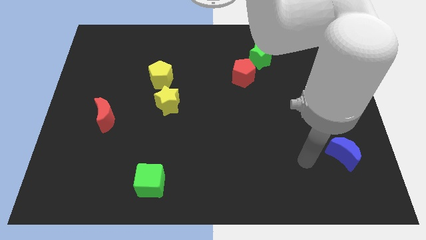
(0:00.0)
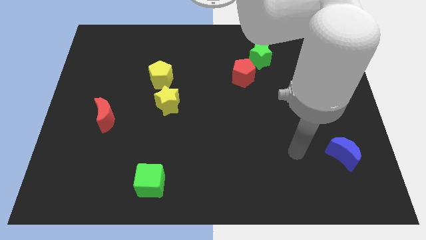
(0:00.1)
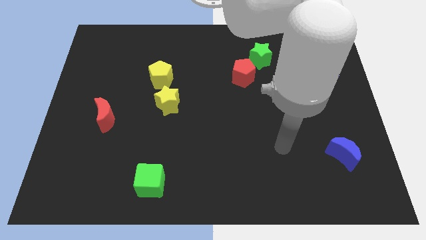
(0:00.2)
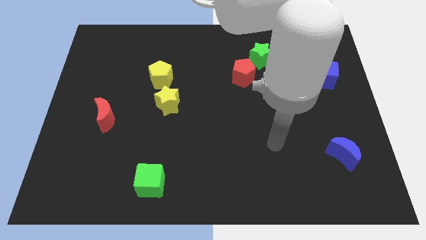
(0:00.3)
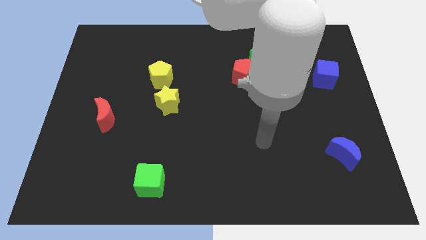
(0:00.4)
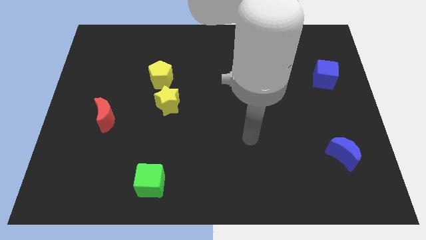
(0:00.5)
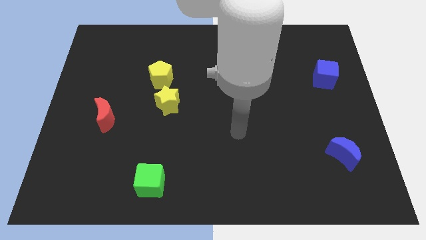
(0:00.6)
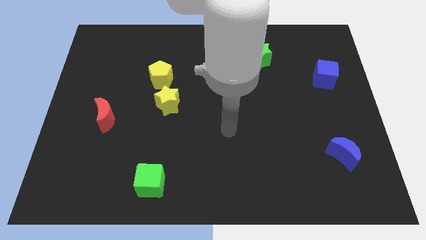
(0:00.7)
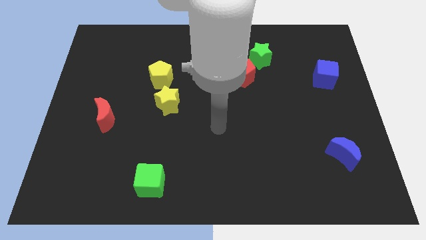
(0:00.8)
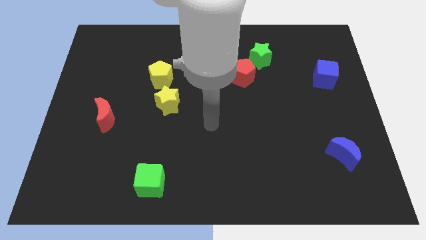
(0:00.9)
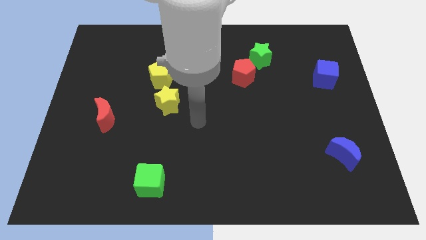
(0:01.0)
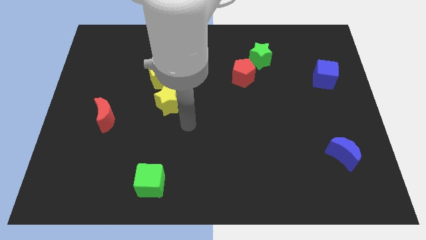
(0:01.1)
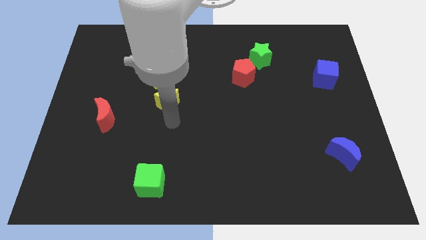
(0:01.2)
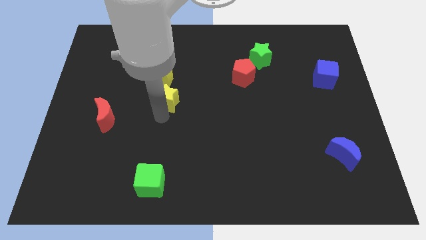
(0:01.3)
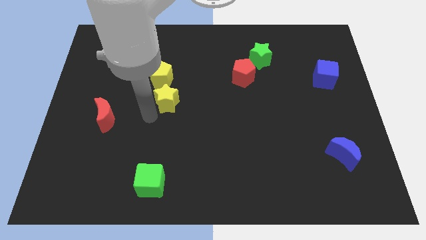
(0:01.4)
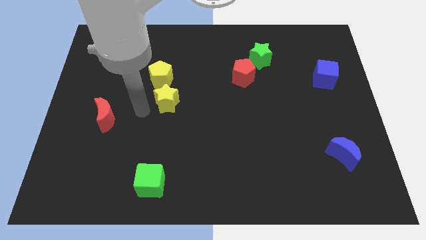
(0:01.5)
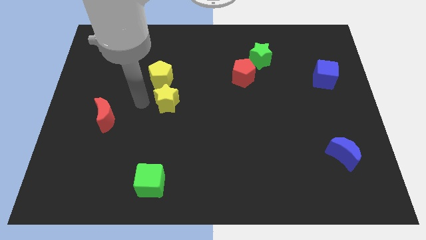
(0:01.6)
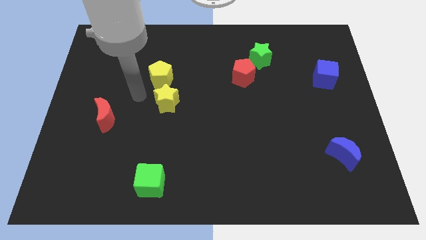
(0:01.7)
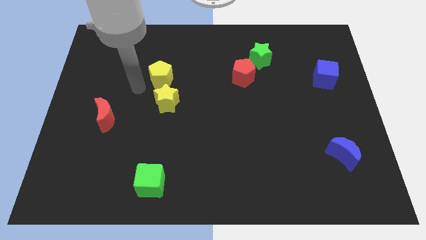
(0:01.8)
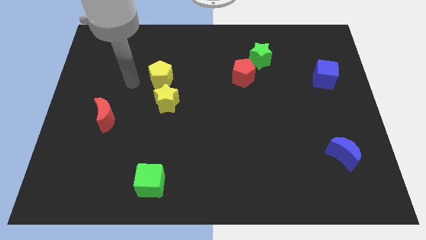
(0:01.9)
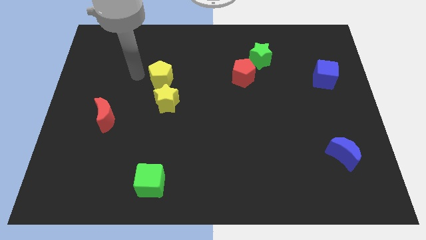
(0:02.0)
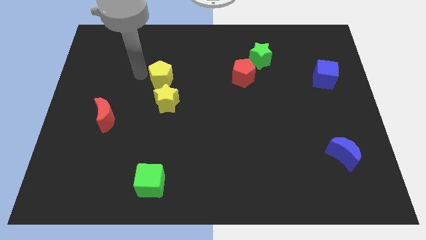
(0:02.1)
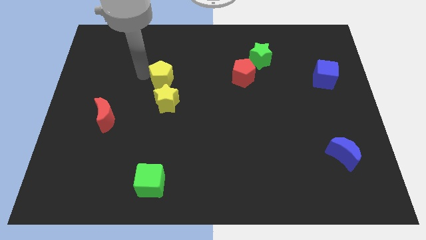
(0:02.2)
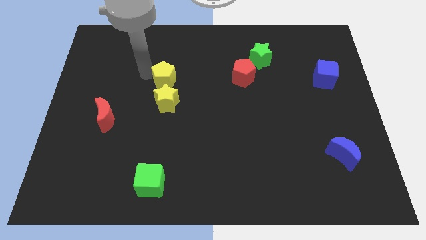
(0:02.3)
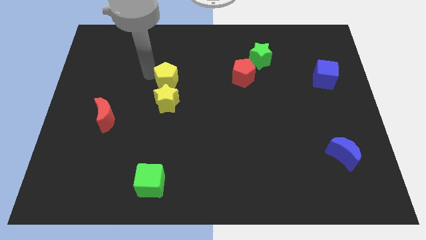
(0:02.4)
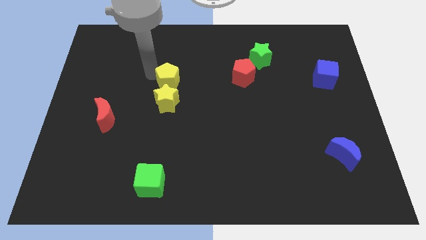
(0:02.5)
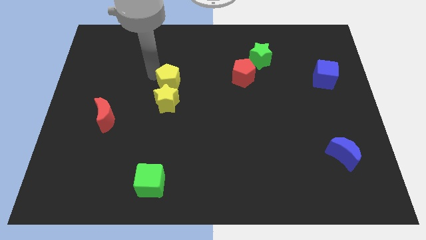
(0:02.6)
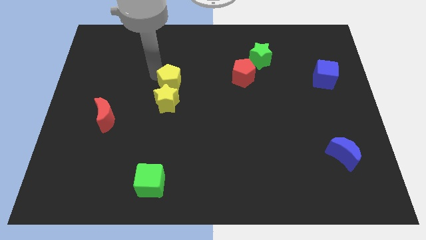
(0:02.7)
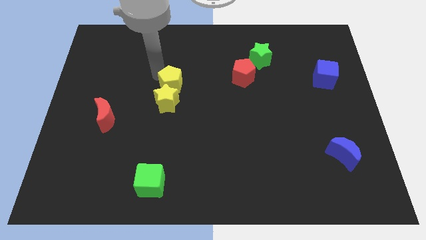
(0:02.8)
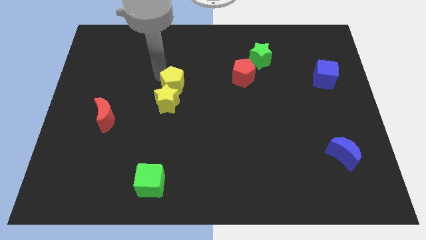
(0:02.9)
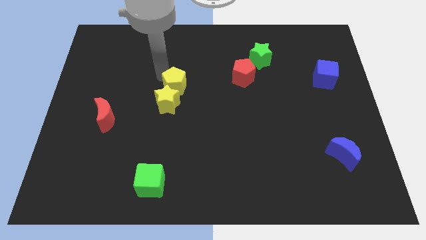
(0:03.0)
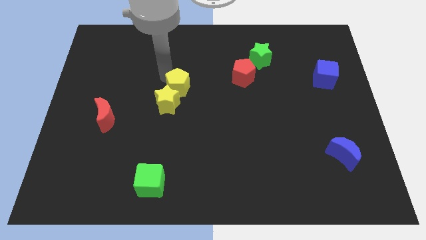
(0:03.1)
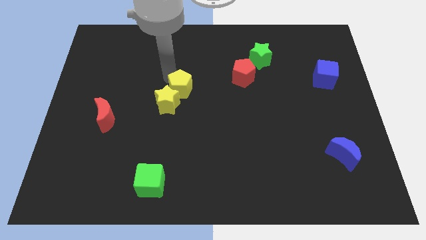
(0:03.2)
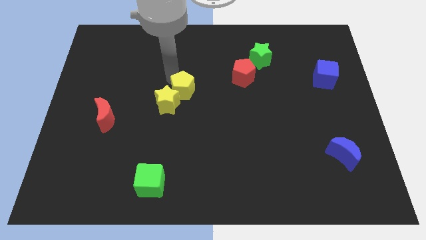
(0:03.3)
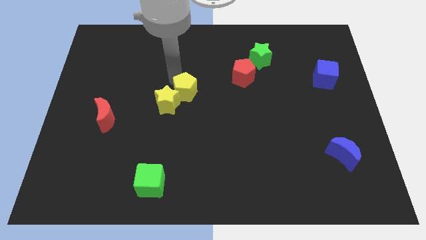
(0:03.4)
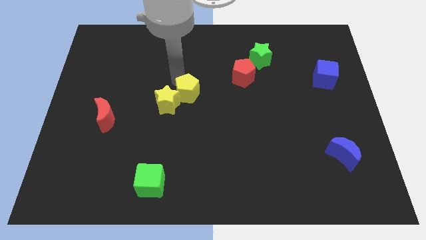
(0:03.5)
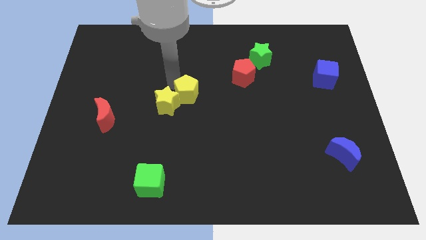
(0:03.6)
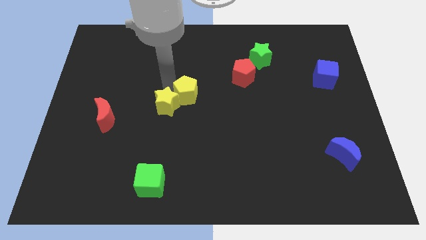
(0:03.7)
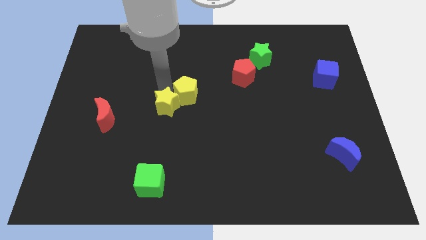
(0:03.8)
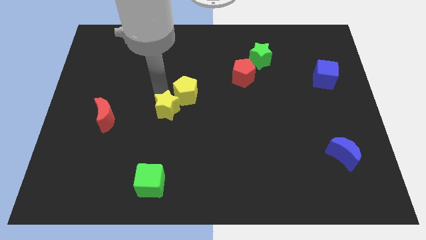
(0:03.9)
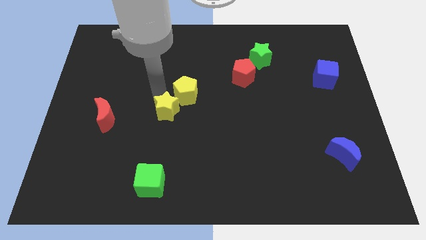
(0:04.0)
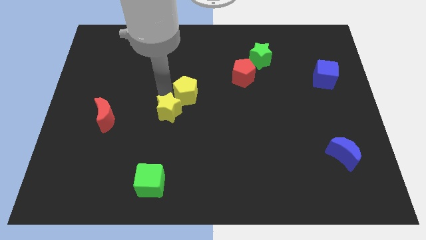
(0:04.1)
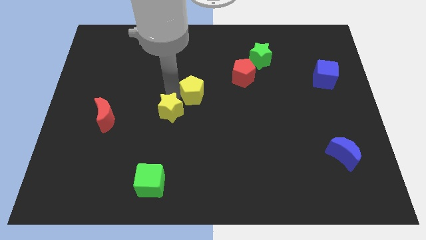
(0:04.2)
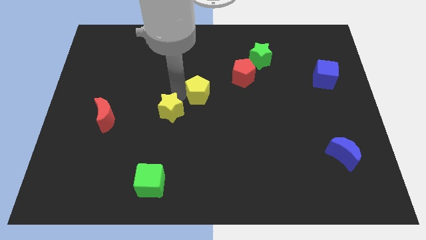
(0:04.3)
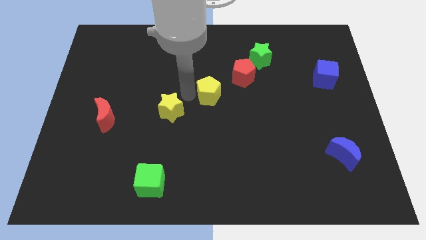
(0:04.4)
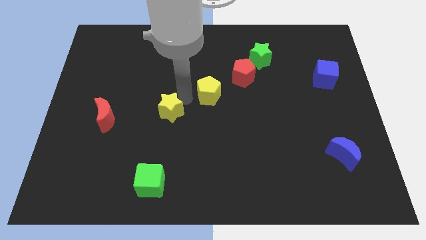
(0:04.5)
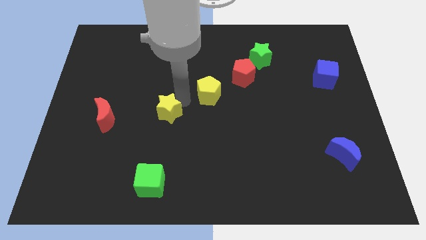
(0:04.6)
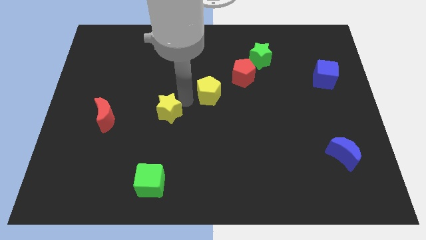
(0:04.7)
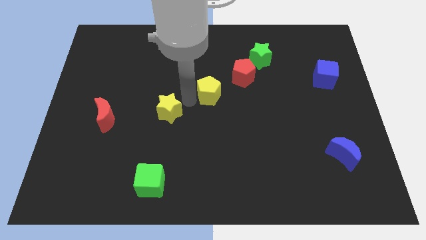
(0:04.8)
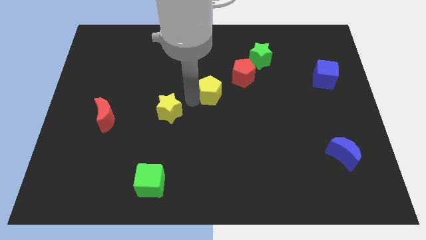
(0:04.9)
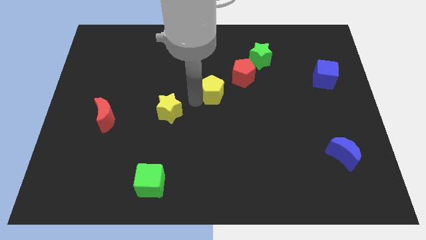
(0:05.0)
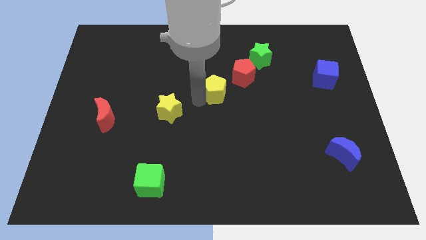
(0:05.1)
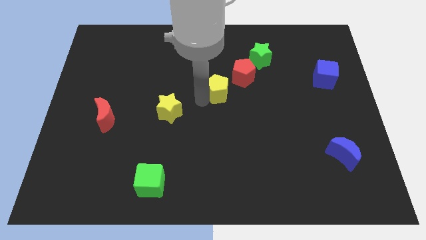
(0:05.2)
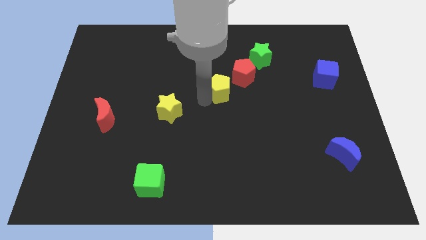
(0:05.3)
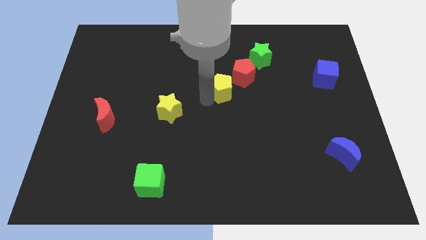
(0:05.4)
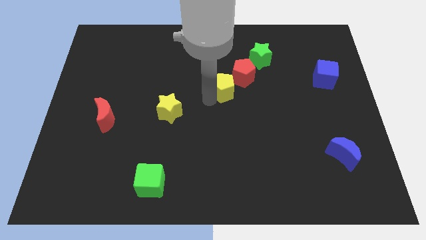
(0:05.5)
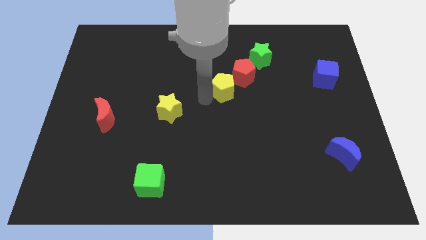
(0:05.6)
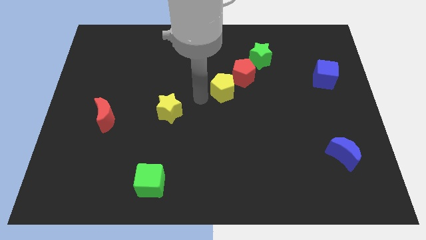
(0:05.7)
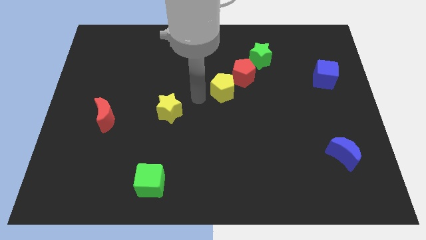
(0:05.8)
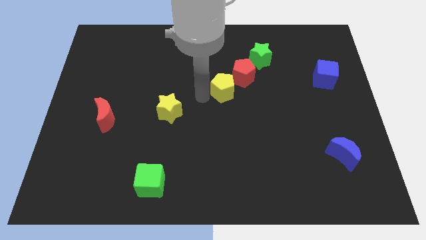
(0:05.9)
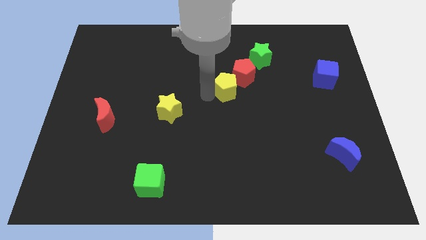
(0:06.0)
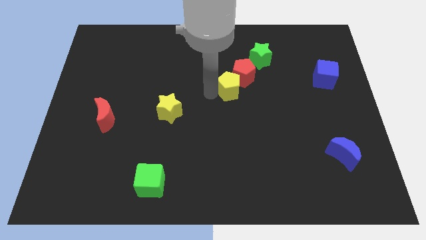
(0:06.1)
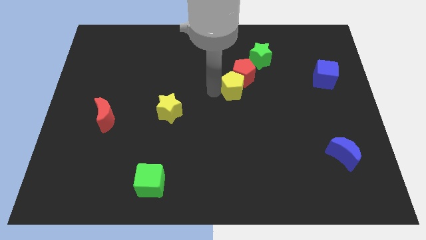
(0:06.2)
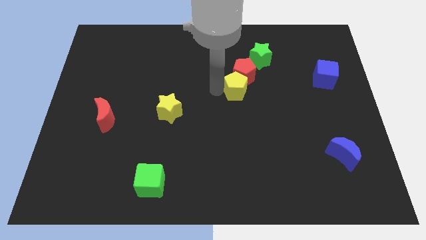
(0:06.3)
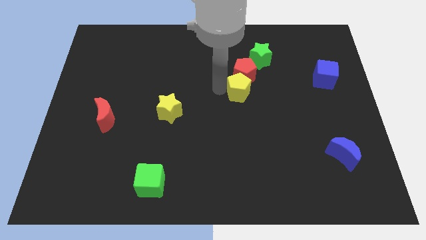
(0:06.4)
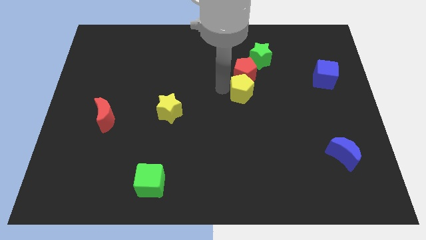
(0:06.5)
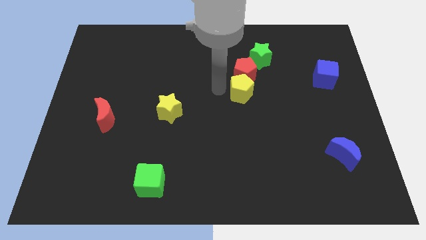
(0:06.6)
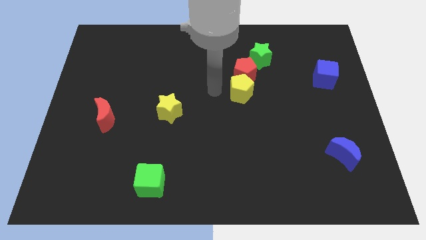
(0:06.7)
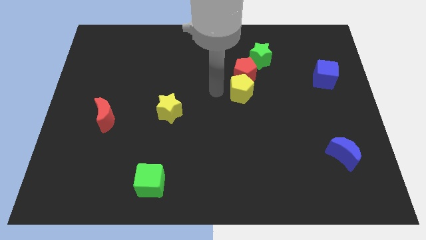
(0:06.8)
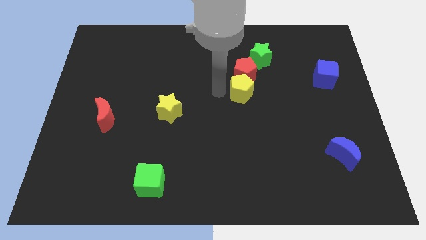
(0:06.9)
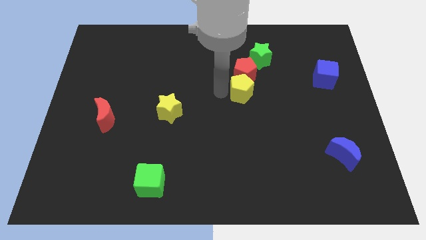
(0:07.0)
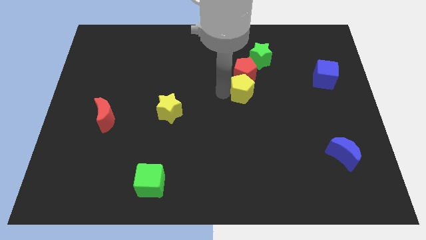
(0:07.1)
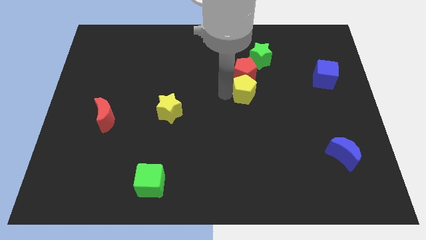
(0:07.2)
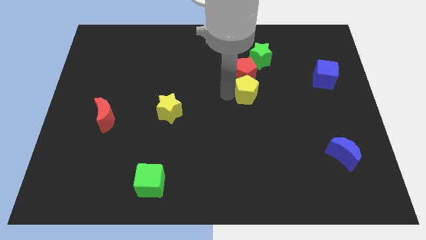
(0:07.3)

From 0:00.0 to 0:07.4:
push the yellow pentagon right

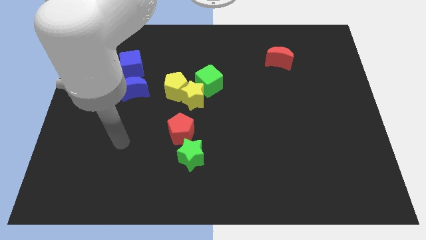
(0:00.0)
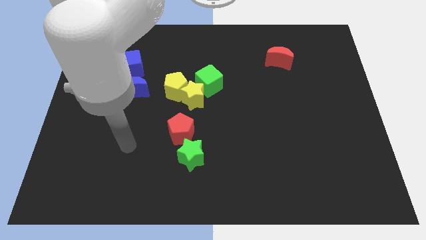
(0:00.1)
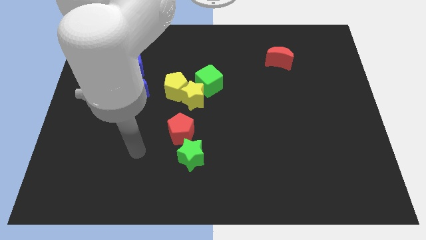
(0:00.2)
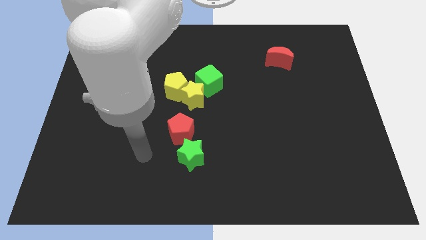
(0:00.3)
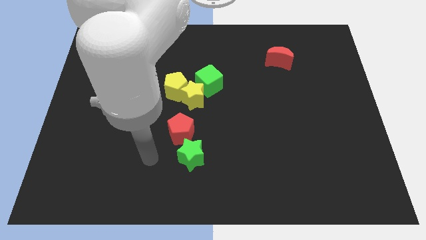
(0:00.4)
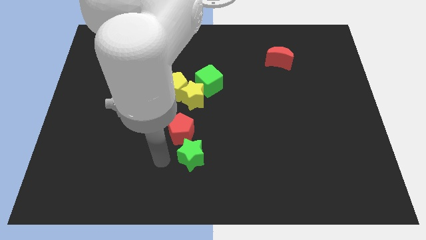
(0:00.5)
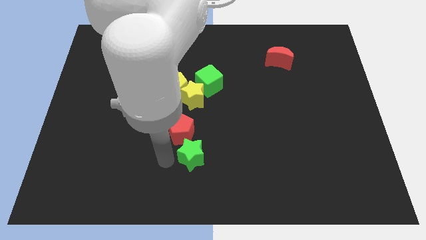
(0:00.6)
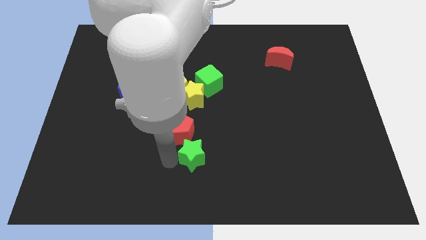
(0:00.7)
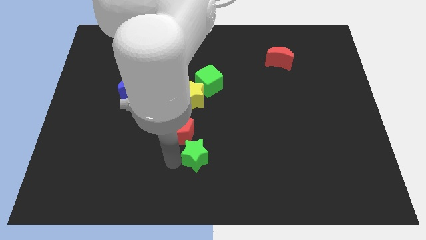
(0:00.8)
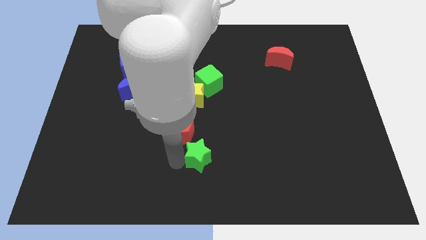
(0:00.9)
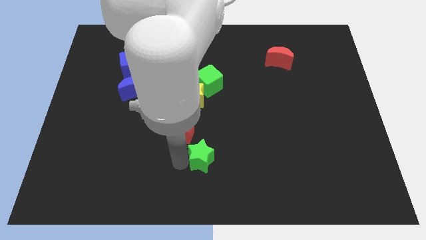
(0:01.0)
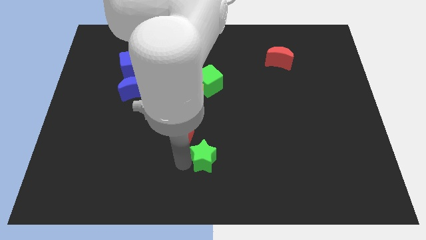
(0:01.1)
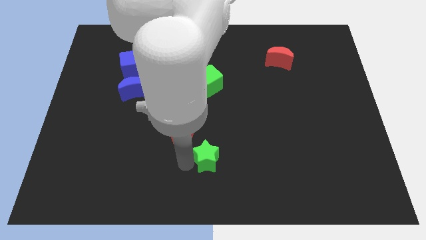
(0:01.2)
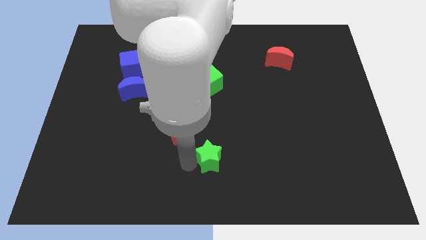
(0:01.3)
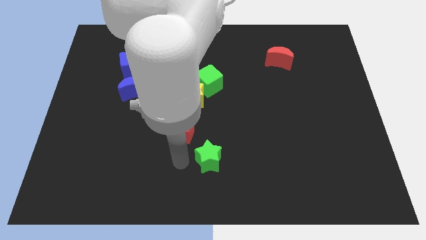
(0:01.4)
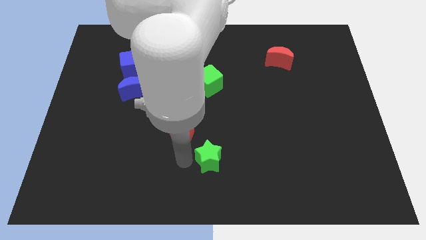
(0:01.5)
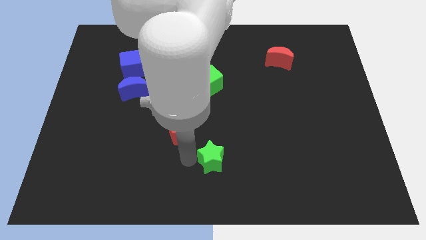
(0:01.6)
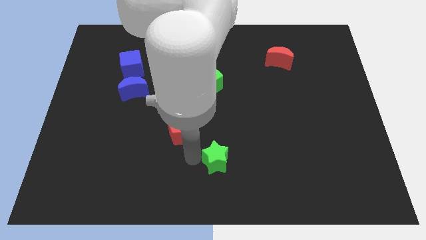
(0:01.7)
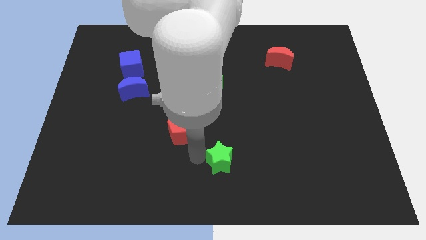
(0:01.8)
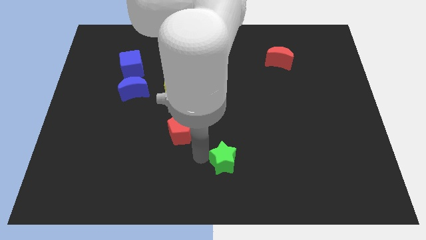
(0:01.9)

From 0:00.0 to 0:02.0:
slide the green star slightly to the right
